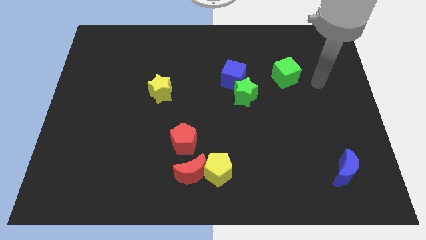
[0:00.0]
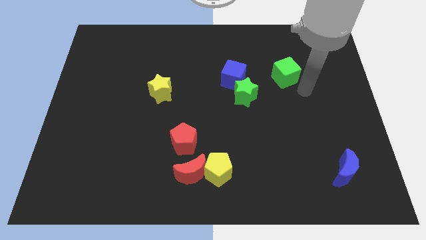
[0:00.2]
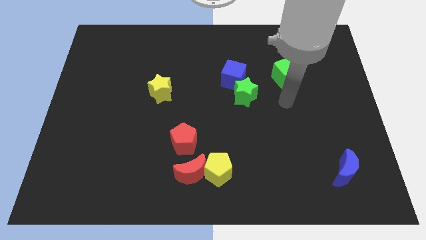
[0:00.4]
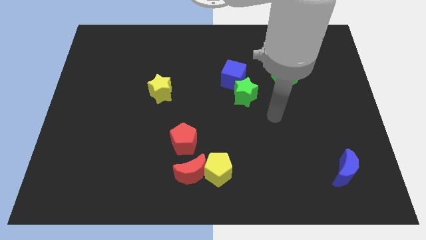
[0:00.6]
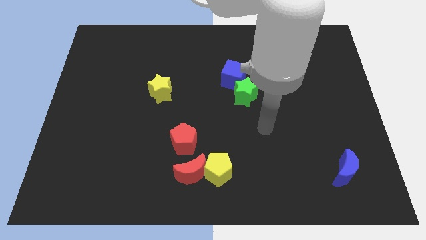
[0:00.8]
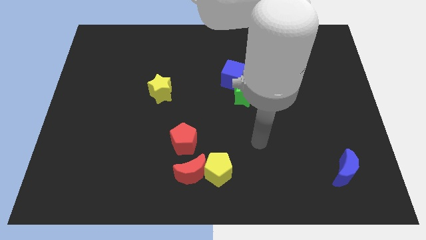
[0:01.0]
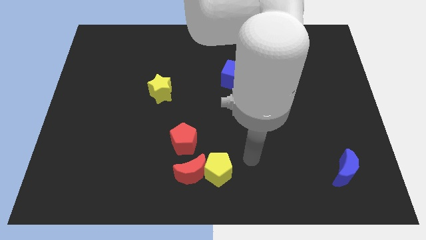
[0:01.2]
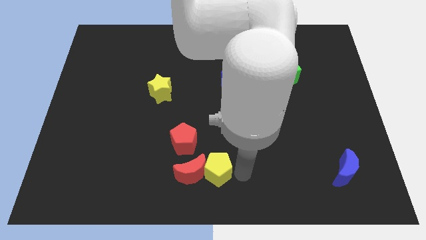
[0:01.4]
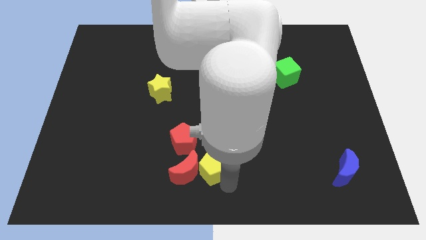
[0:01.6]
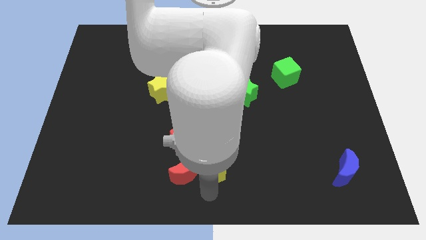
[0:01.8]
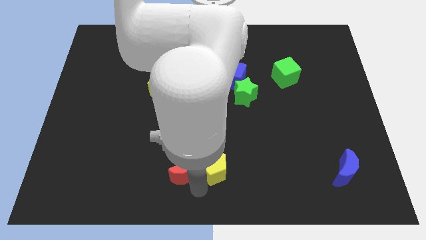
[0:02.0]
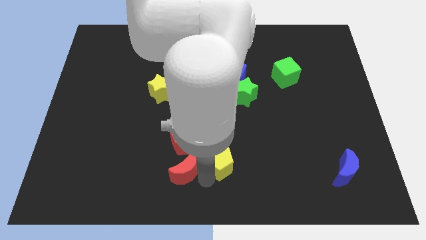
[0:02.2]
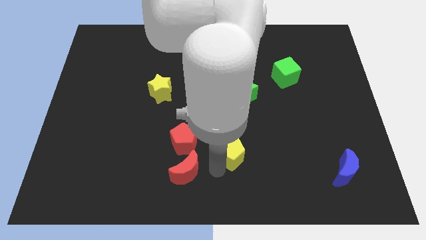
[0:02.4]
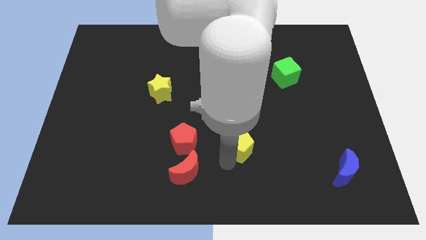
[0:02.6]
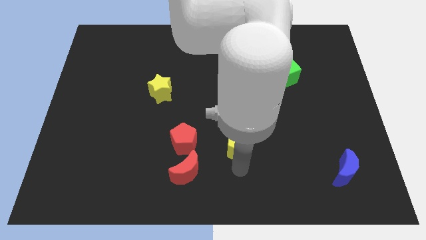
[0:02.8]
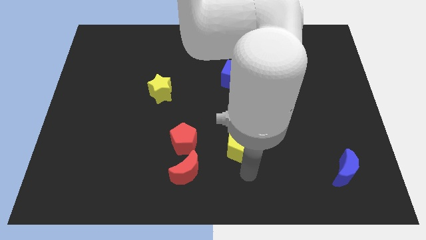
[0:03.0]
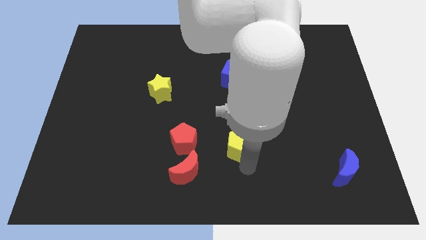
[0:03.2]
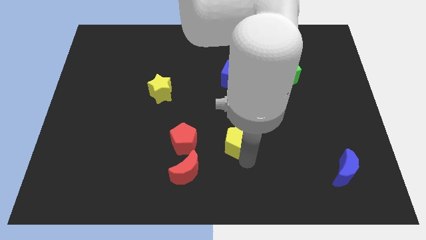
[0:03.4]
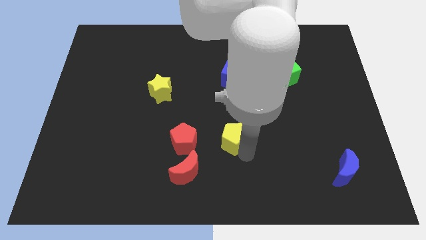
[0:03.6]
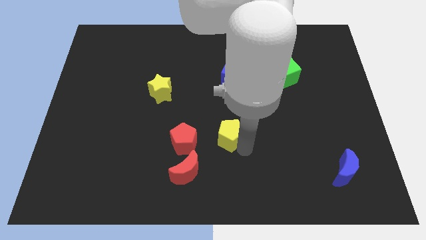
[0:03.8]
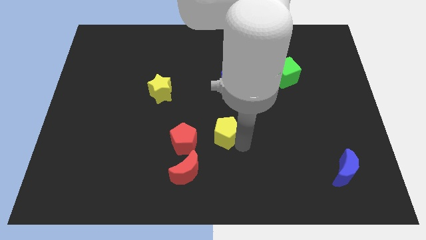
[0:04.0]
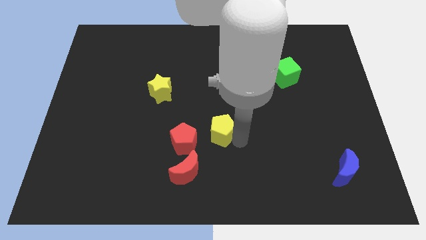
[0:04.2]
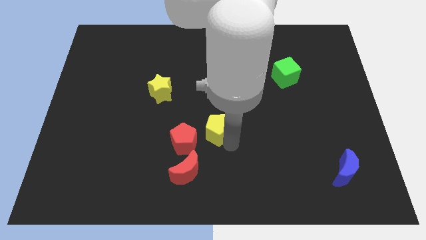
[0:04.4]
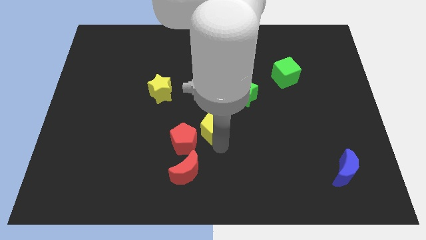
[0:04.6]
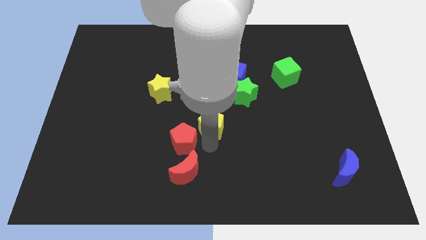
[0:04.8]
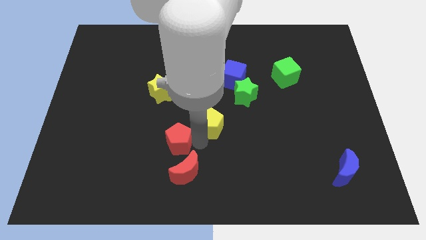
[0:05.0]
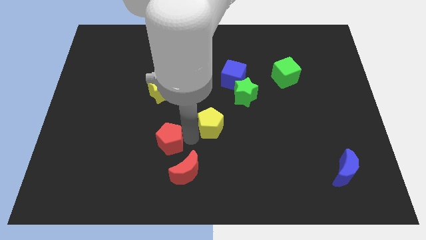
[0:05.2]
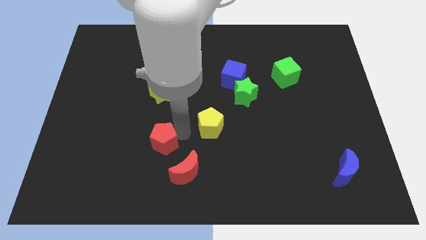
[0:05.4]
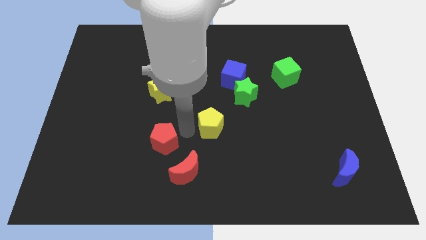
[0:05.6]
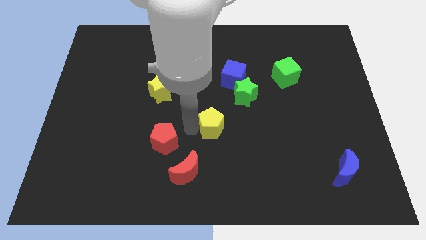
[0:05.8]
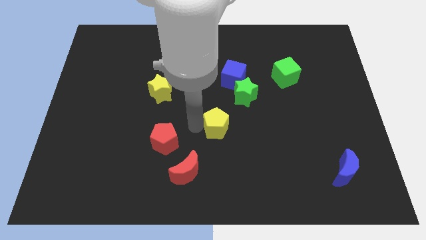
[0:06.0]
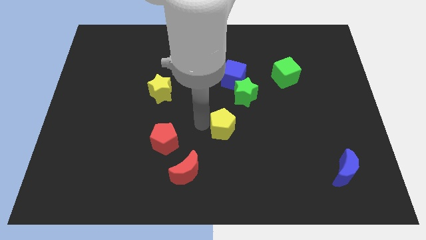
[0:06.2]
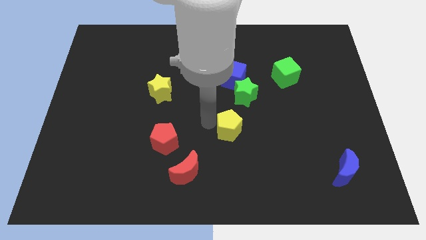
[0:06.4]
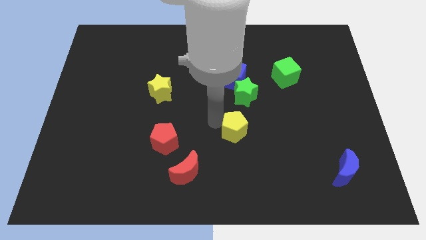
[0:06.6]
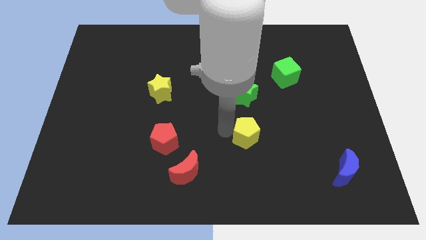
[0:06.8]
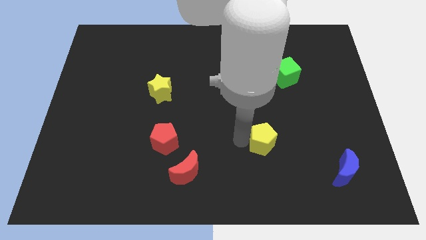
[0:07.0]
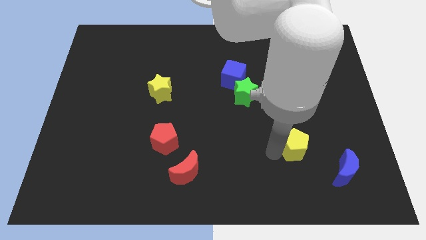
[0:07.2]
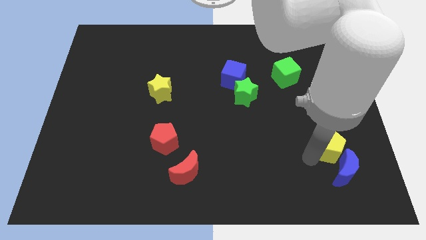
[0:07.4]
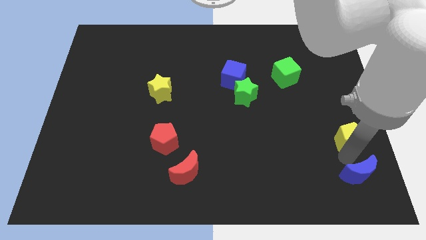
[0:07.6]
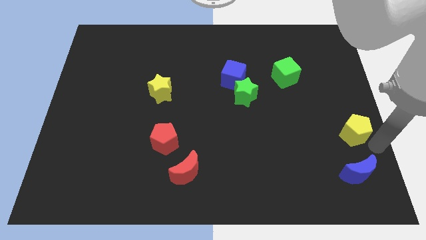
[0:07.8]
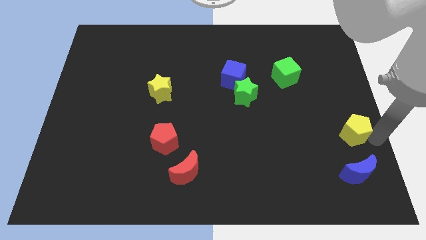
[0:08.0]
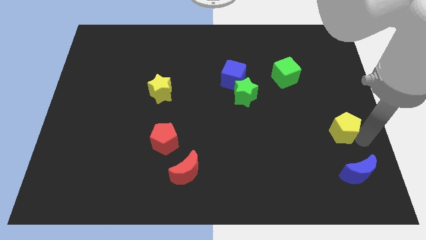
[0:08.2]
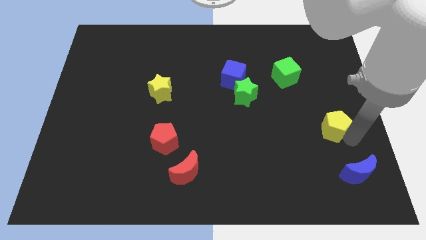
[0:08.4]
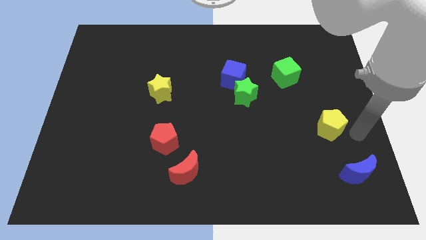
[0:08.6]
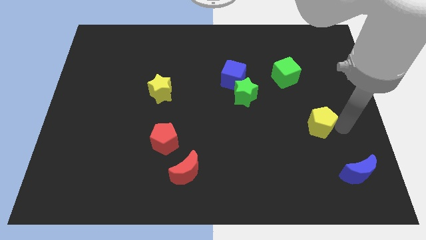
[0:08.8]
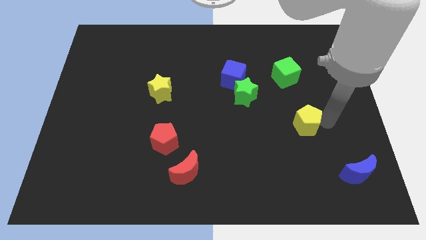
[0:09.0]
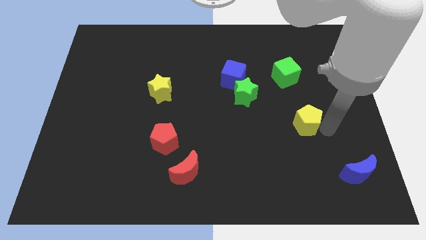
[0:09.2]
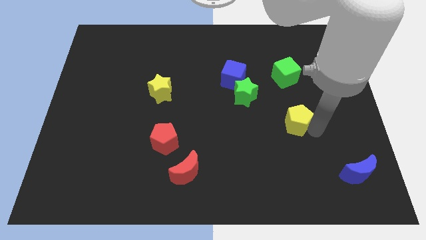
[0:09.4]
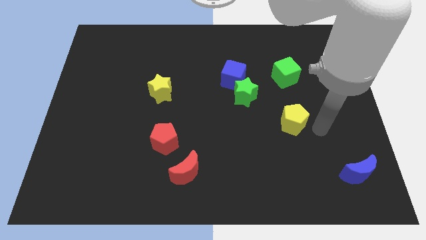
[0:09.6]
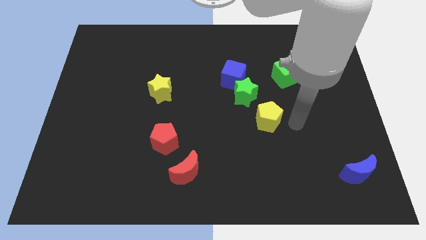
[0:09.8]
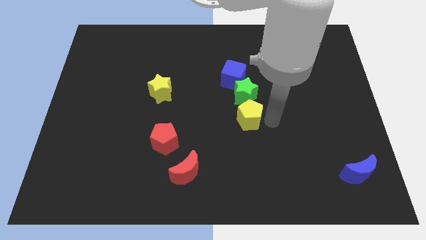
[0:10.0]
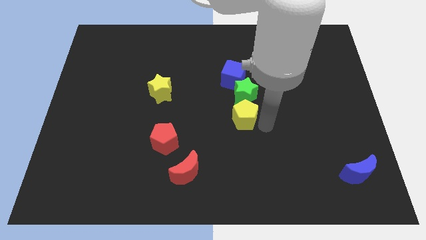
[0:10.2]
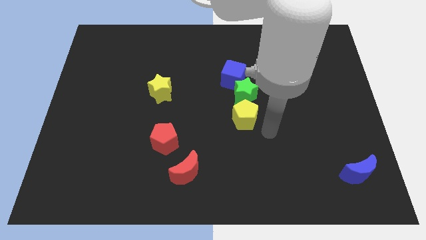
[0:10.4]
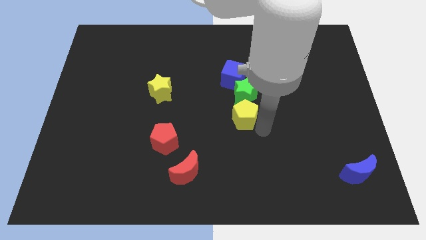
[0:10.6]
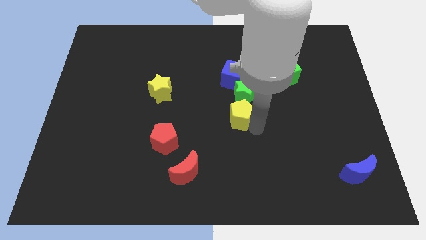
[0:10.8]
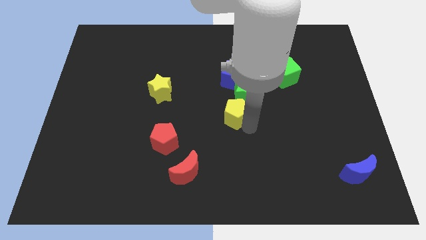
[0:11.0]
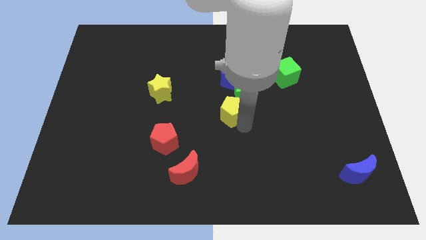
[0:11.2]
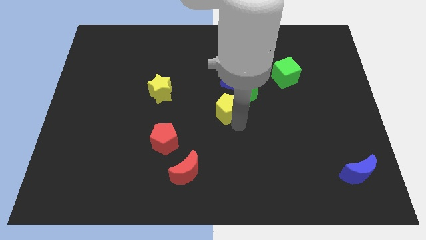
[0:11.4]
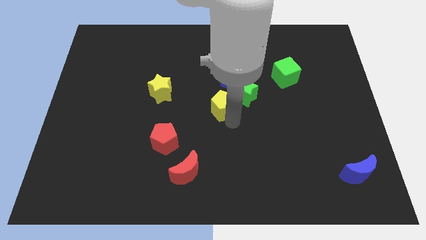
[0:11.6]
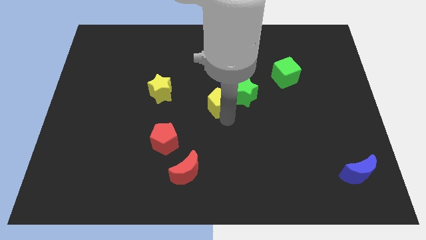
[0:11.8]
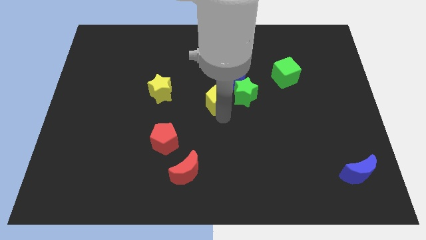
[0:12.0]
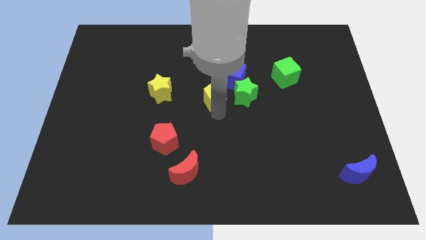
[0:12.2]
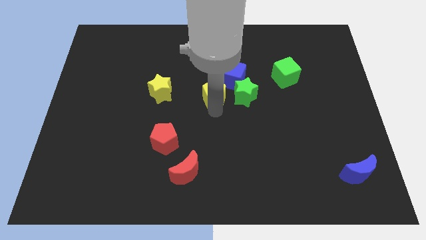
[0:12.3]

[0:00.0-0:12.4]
move the yellow pentagon upwards

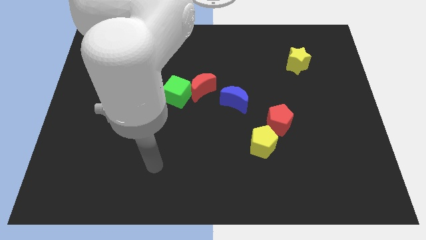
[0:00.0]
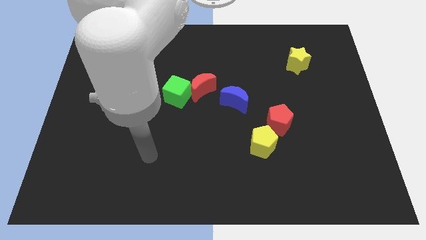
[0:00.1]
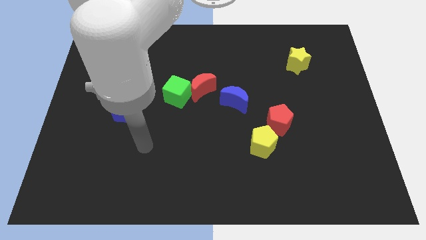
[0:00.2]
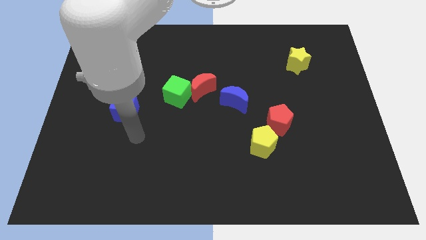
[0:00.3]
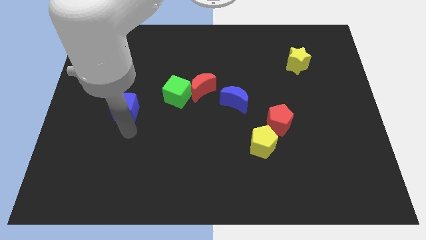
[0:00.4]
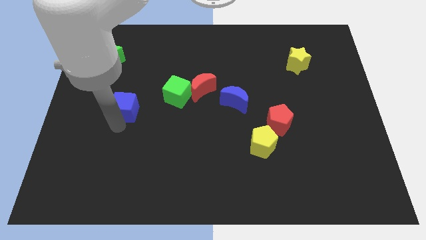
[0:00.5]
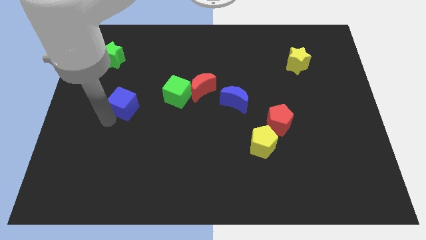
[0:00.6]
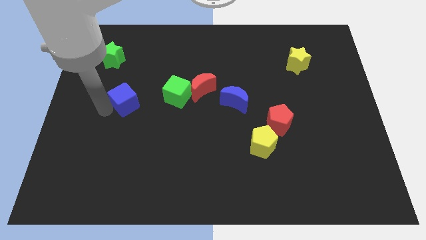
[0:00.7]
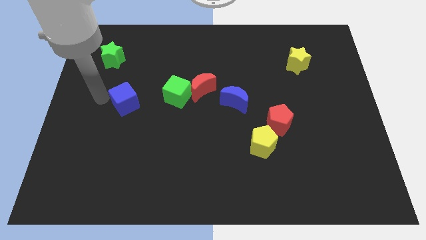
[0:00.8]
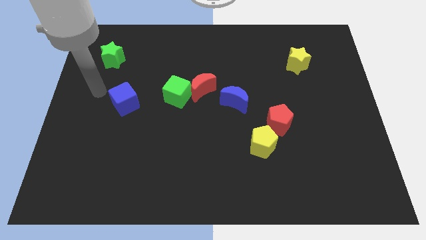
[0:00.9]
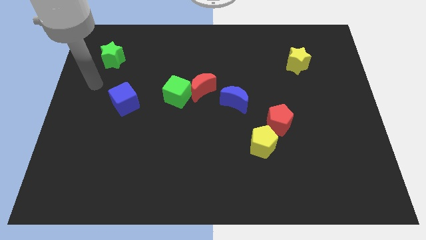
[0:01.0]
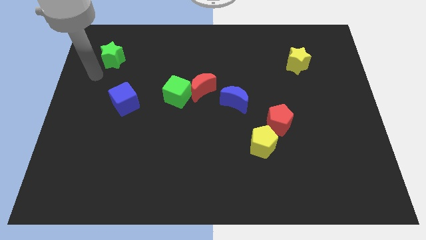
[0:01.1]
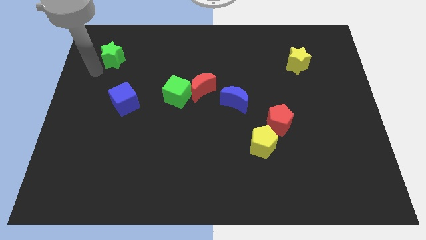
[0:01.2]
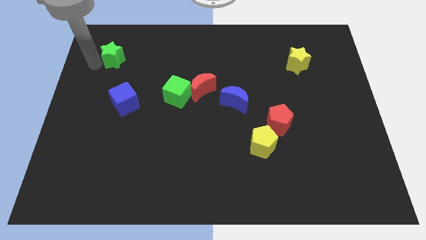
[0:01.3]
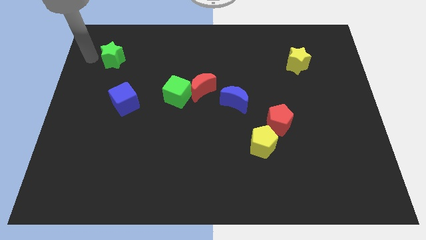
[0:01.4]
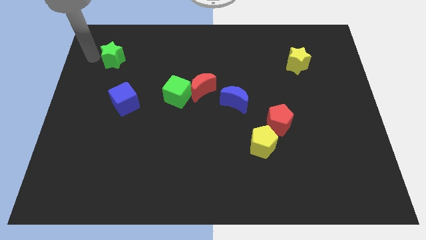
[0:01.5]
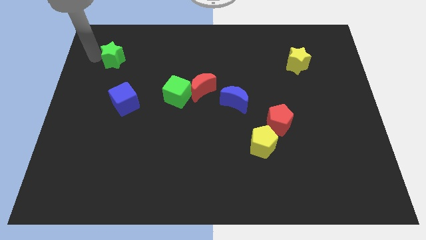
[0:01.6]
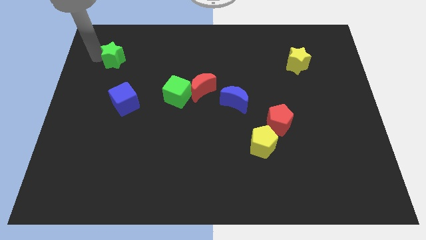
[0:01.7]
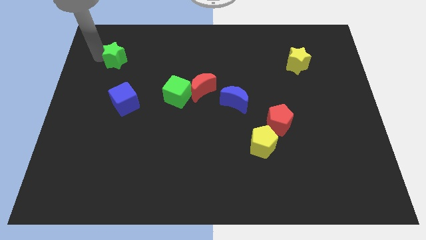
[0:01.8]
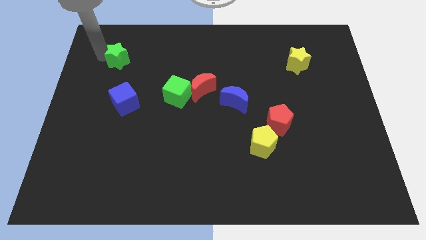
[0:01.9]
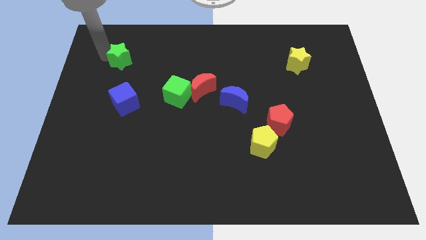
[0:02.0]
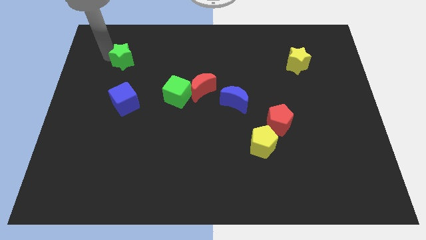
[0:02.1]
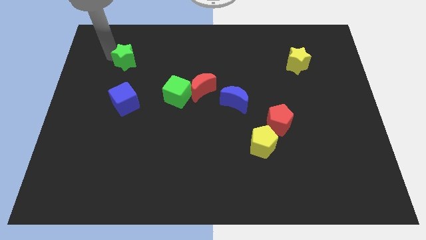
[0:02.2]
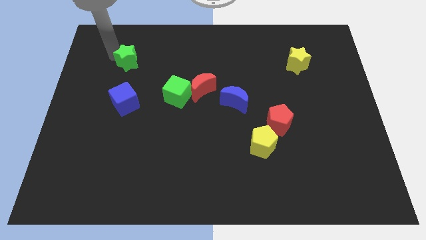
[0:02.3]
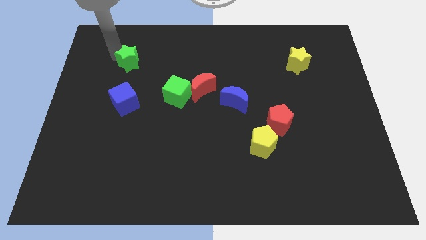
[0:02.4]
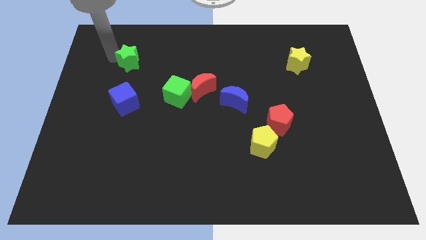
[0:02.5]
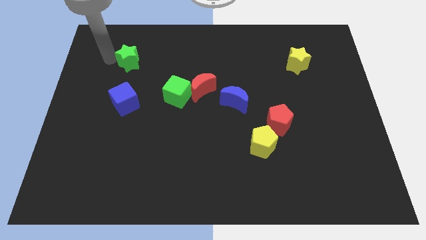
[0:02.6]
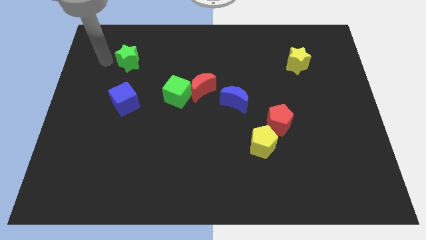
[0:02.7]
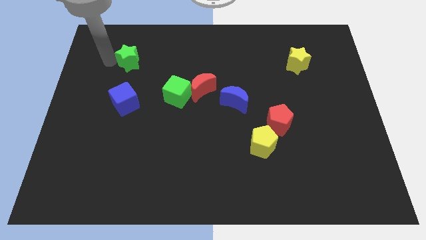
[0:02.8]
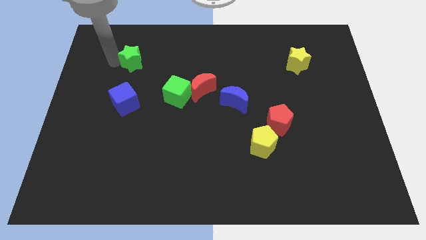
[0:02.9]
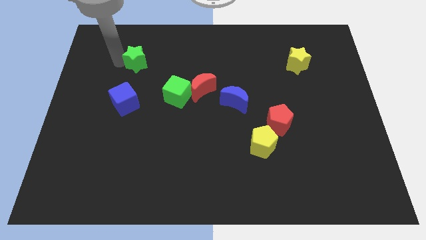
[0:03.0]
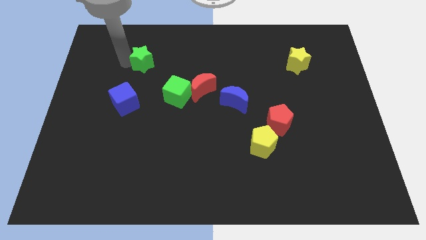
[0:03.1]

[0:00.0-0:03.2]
slightly slide the green star right
